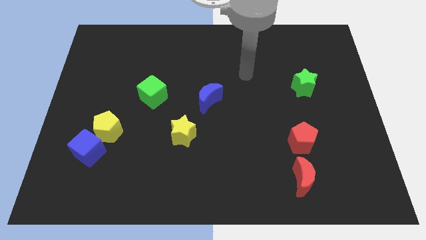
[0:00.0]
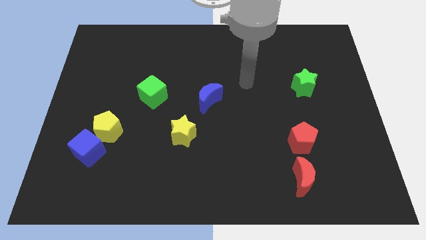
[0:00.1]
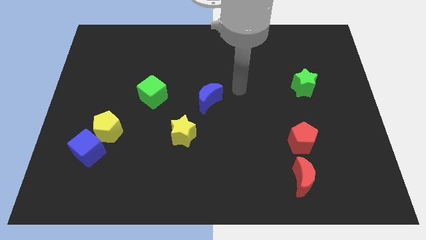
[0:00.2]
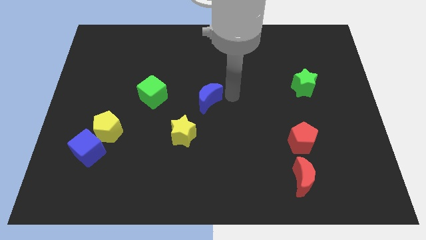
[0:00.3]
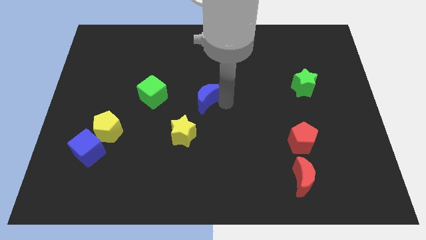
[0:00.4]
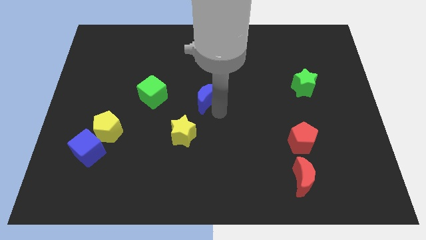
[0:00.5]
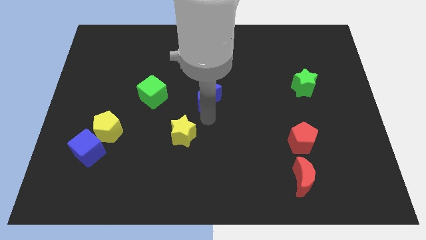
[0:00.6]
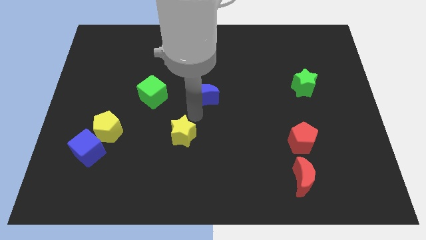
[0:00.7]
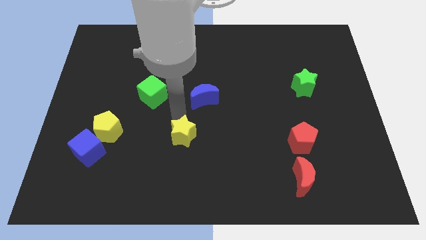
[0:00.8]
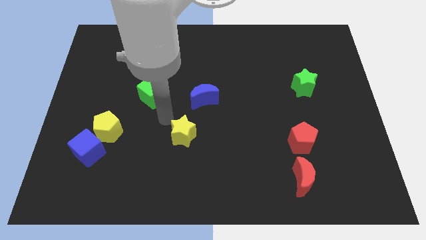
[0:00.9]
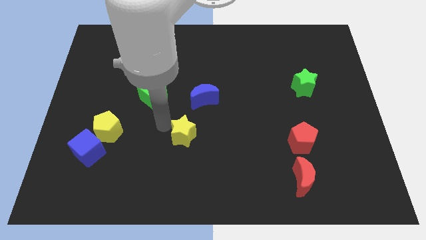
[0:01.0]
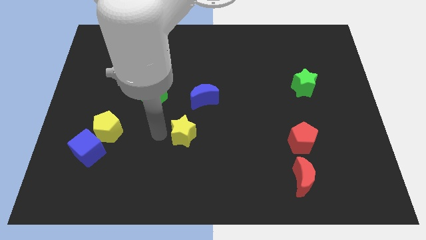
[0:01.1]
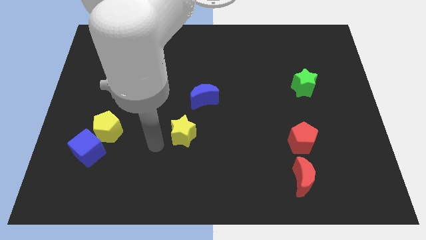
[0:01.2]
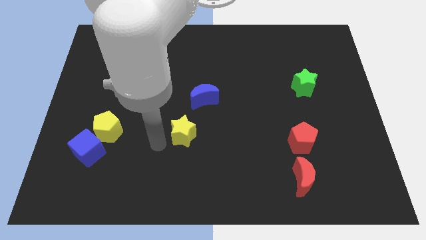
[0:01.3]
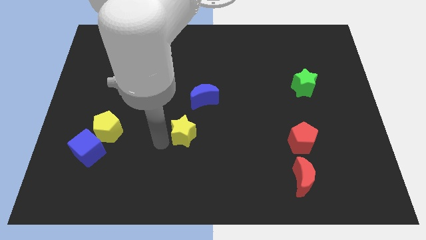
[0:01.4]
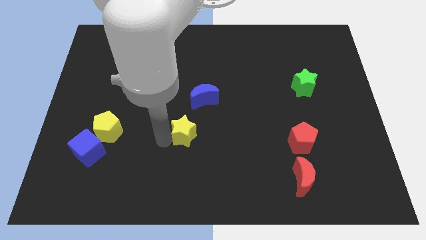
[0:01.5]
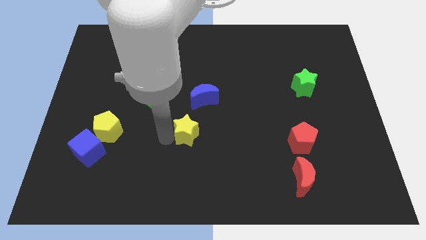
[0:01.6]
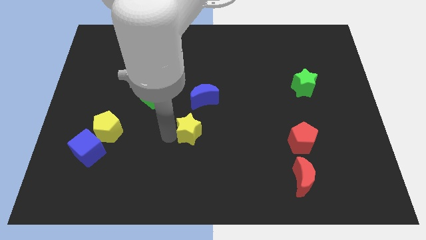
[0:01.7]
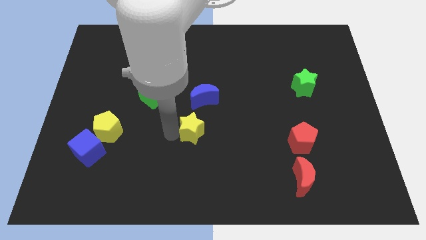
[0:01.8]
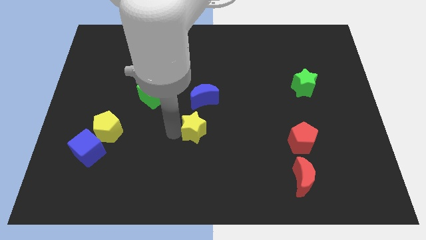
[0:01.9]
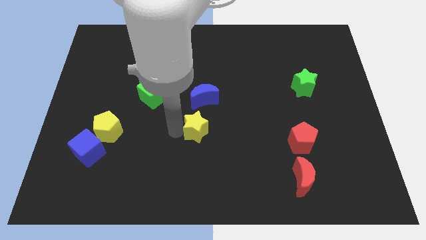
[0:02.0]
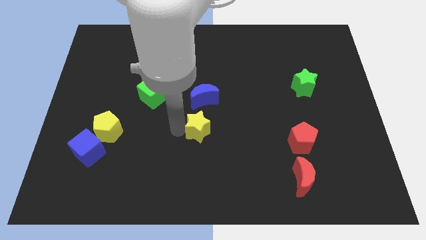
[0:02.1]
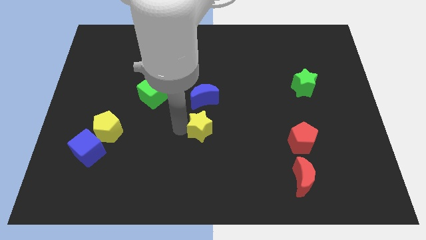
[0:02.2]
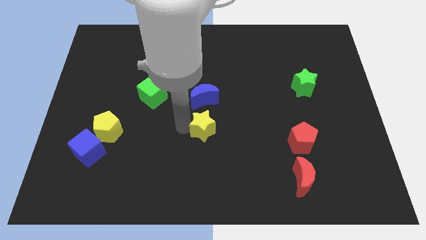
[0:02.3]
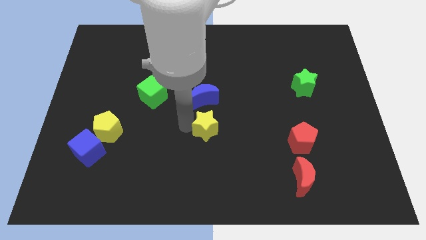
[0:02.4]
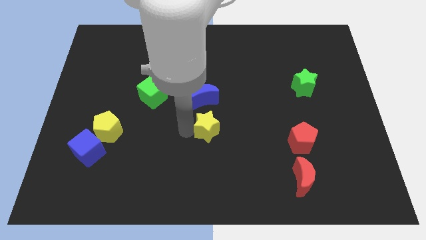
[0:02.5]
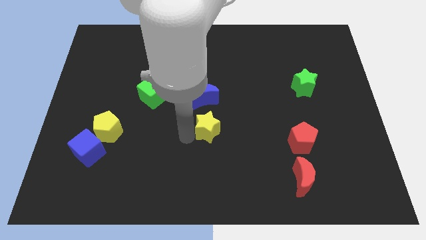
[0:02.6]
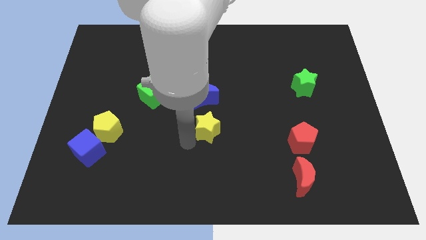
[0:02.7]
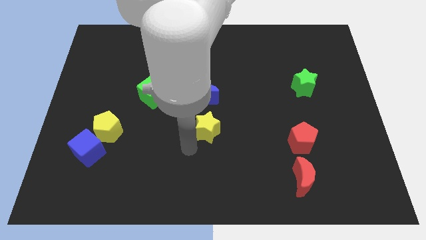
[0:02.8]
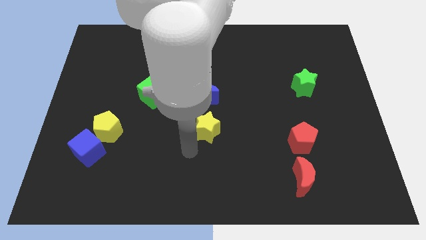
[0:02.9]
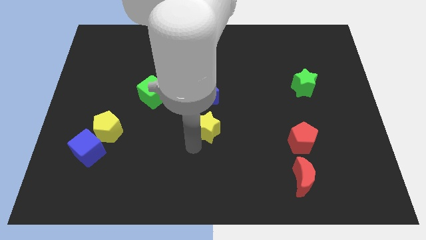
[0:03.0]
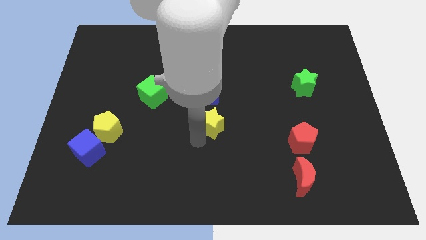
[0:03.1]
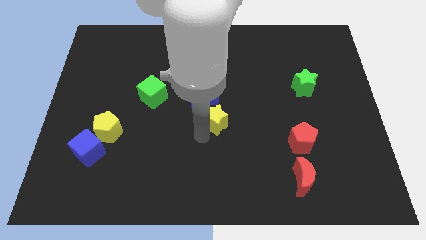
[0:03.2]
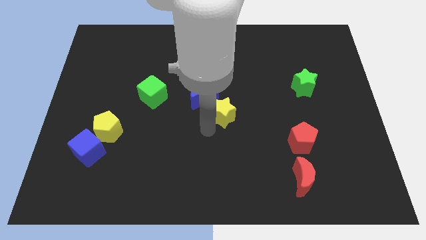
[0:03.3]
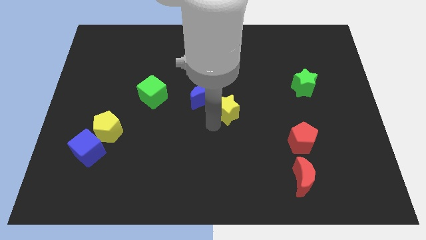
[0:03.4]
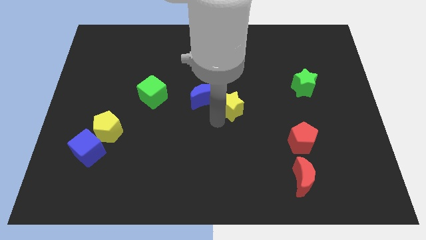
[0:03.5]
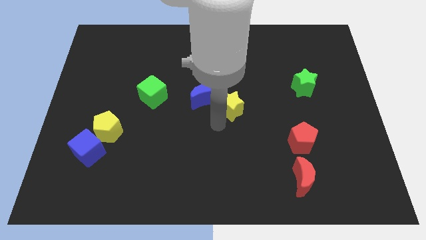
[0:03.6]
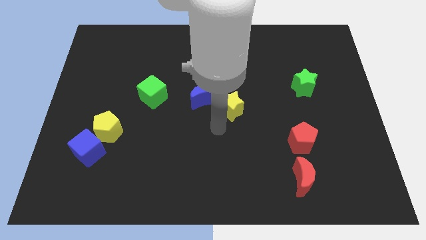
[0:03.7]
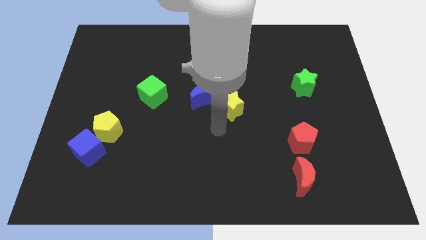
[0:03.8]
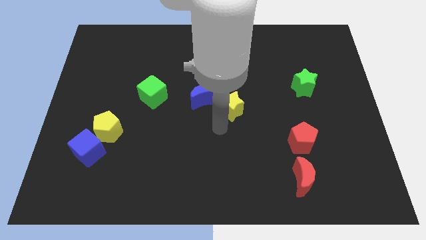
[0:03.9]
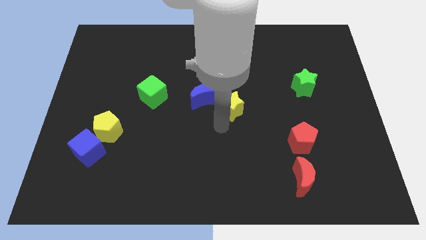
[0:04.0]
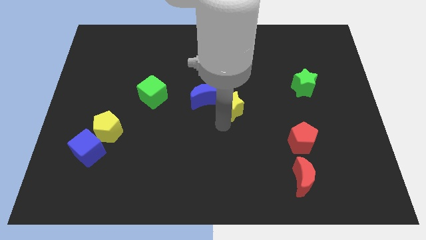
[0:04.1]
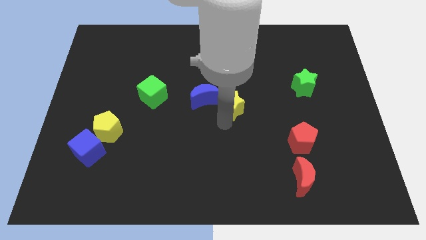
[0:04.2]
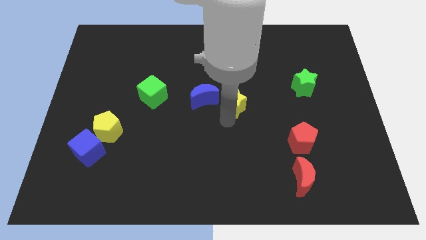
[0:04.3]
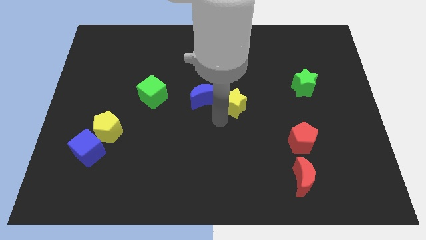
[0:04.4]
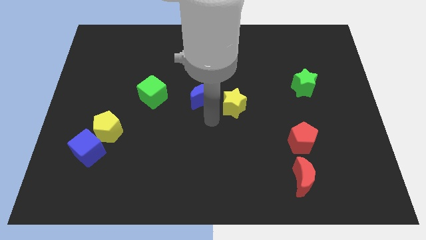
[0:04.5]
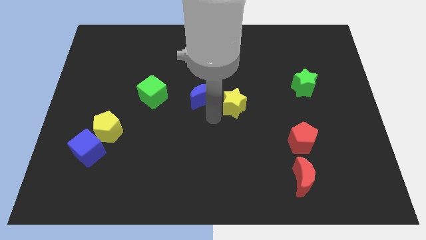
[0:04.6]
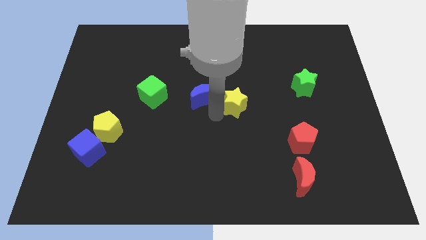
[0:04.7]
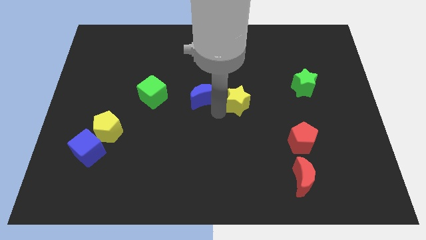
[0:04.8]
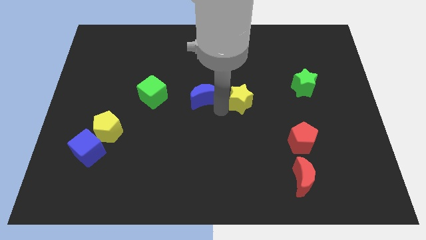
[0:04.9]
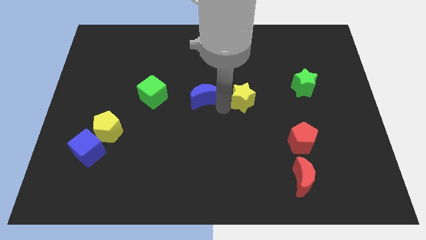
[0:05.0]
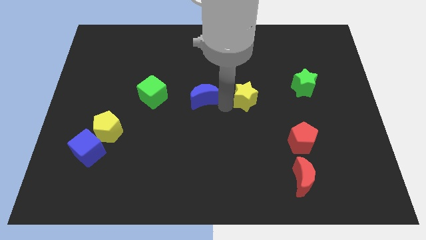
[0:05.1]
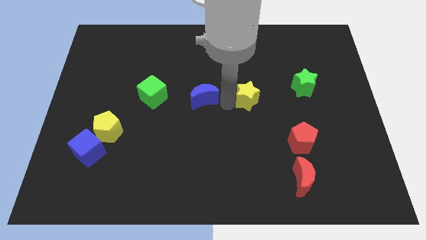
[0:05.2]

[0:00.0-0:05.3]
move the yellow star left of the green star

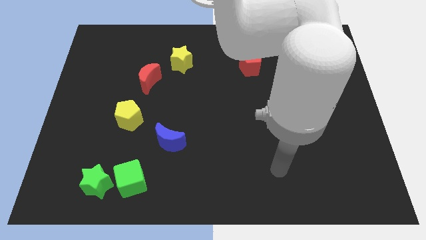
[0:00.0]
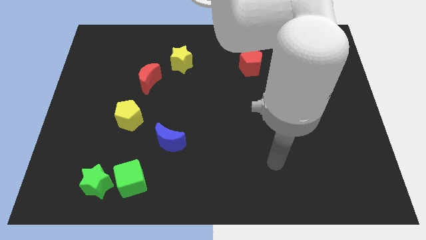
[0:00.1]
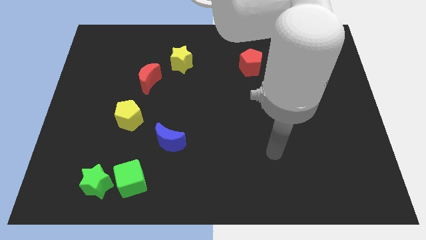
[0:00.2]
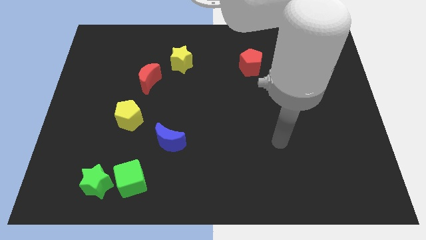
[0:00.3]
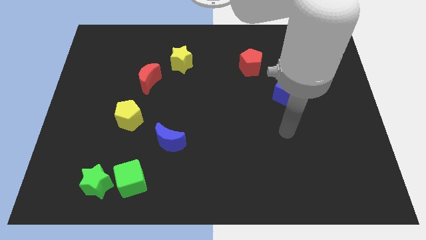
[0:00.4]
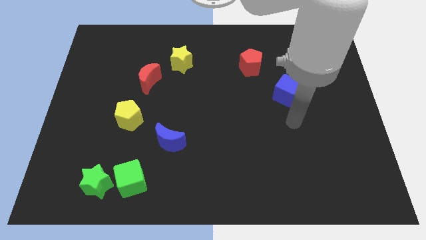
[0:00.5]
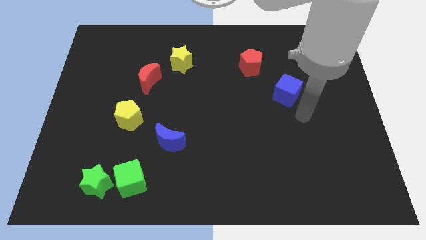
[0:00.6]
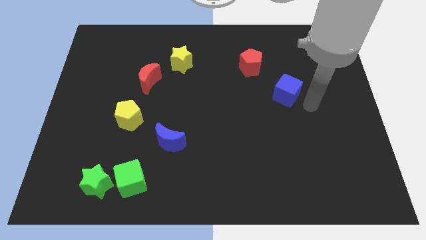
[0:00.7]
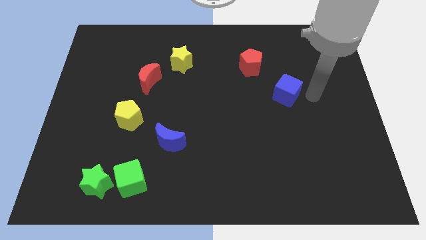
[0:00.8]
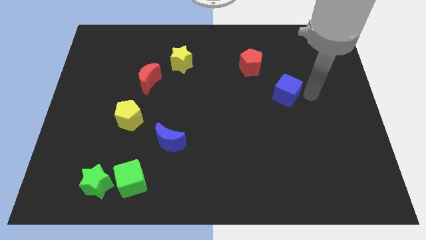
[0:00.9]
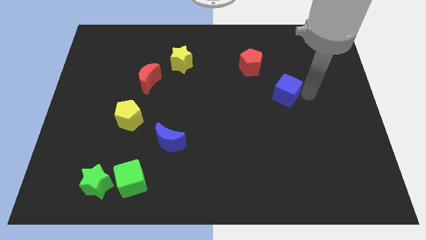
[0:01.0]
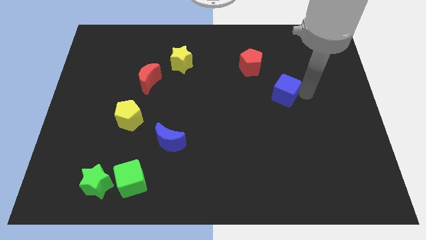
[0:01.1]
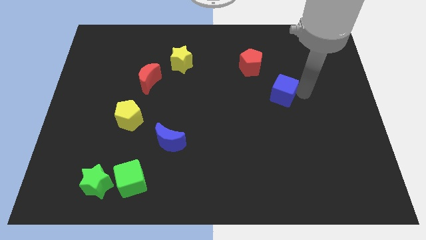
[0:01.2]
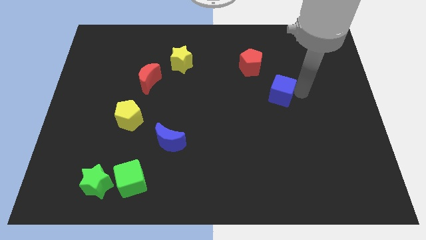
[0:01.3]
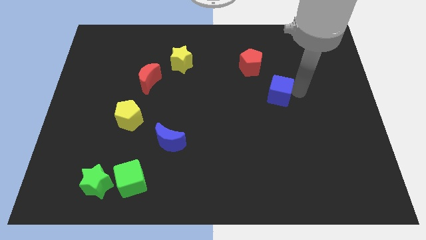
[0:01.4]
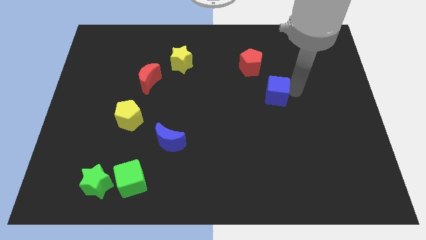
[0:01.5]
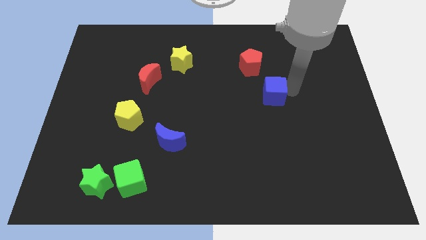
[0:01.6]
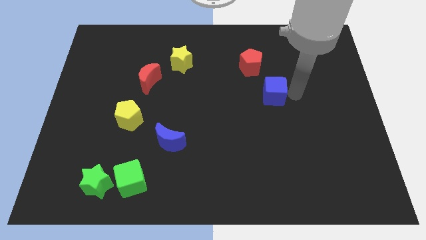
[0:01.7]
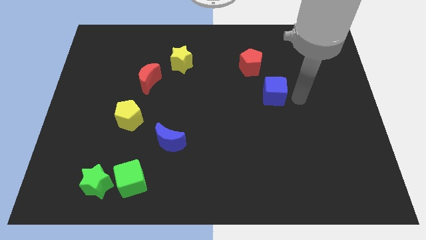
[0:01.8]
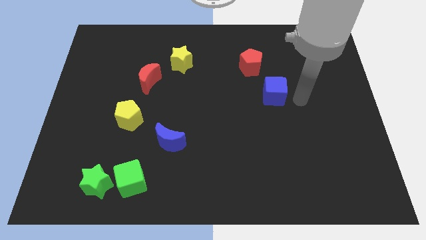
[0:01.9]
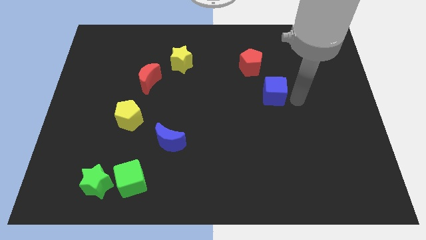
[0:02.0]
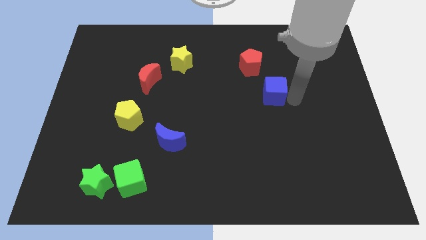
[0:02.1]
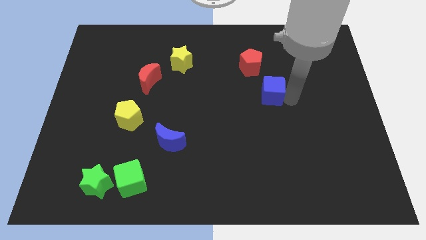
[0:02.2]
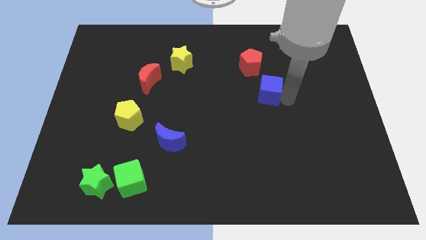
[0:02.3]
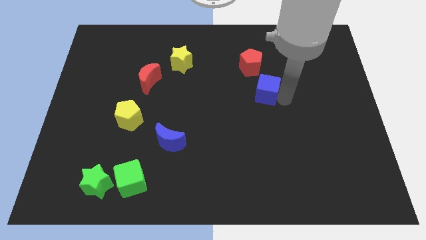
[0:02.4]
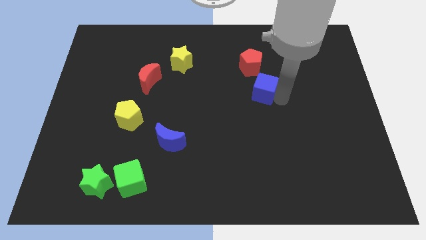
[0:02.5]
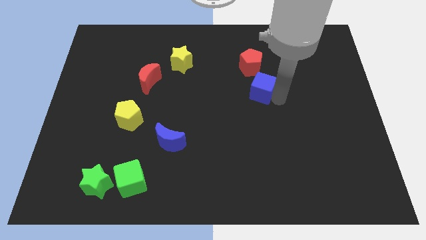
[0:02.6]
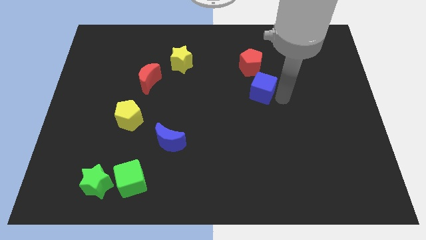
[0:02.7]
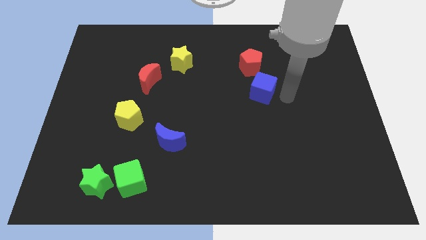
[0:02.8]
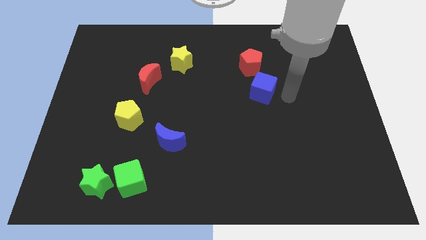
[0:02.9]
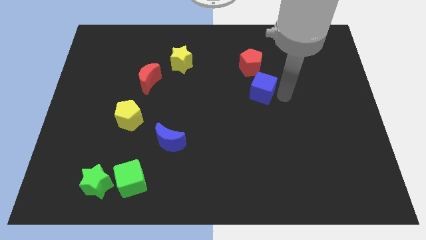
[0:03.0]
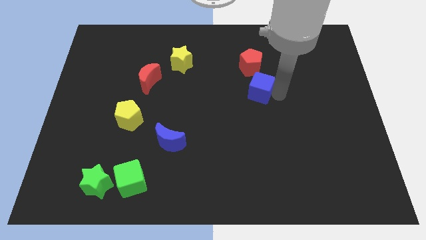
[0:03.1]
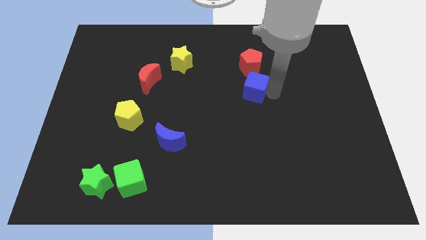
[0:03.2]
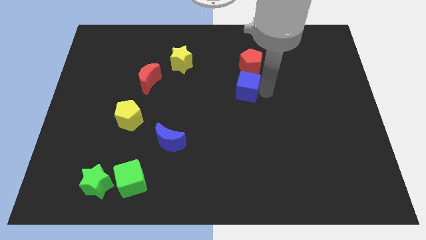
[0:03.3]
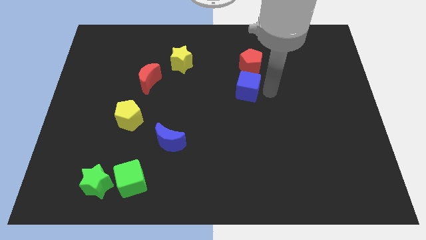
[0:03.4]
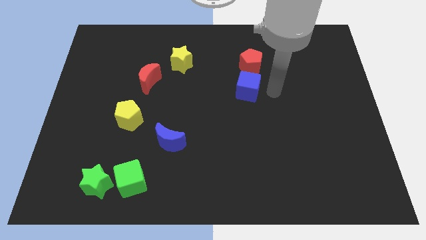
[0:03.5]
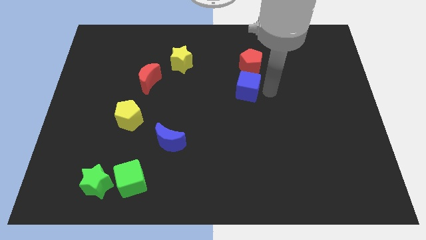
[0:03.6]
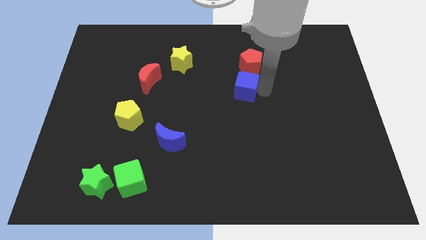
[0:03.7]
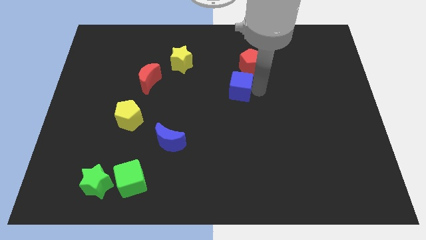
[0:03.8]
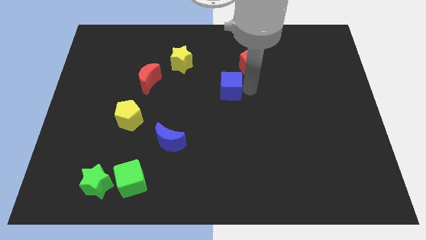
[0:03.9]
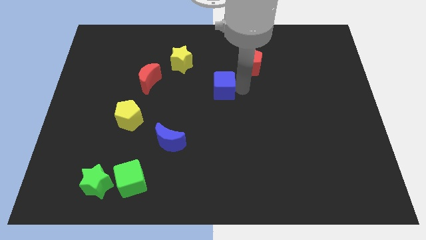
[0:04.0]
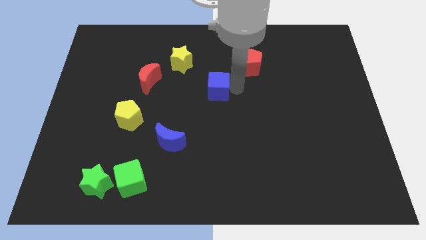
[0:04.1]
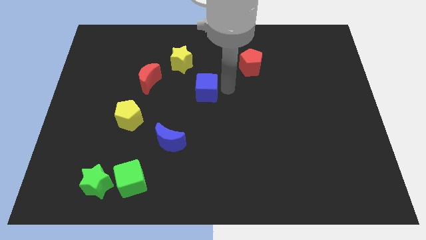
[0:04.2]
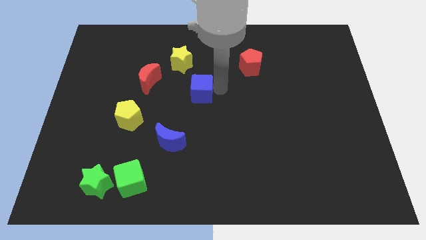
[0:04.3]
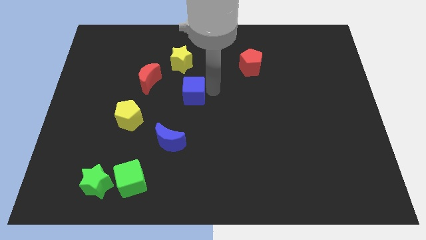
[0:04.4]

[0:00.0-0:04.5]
slide the blue cube below the yellow star
